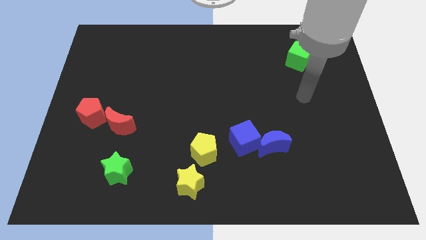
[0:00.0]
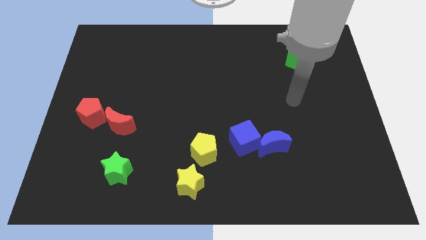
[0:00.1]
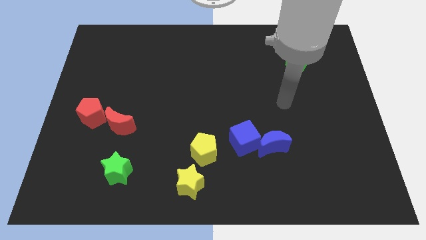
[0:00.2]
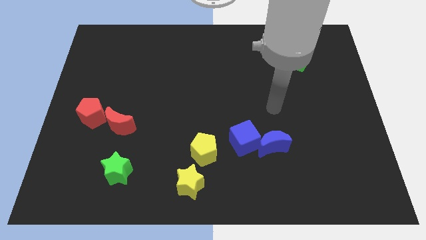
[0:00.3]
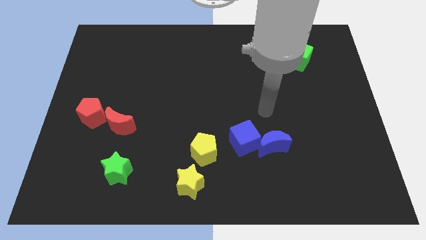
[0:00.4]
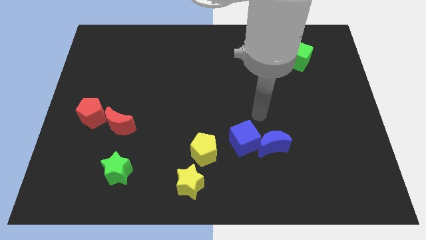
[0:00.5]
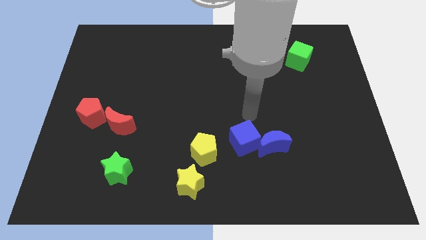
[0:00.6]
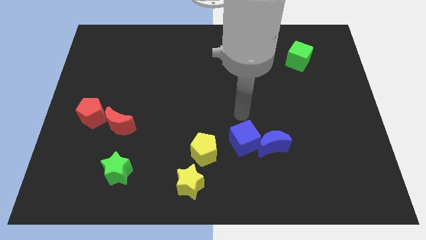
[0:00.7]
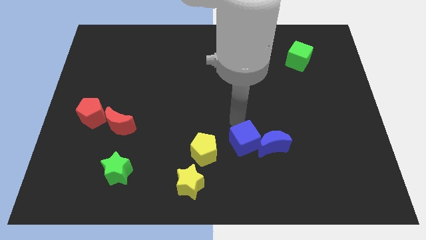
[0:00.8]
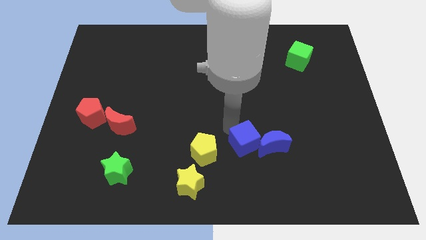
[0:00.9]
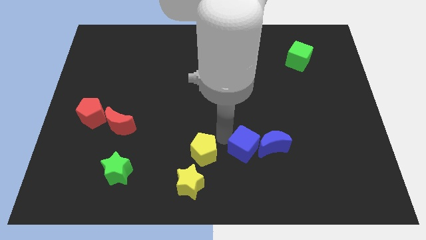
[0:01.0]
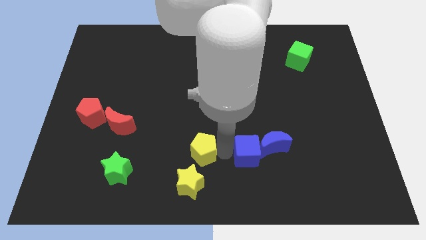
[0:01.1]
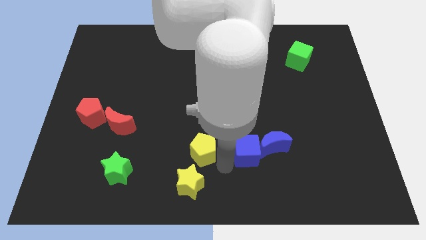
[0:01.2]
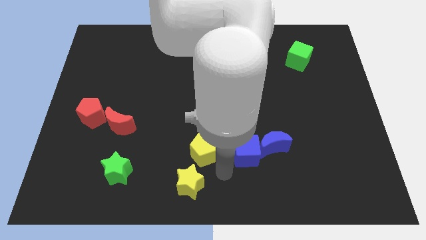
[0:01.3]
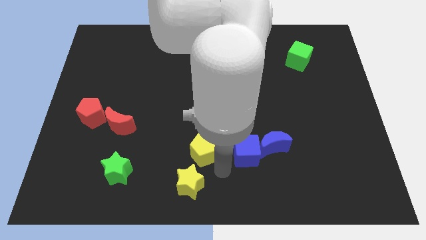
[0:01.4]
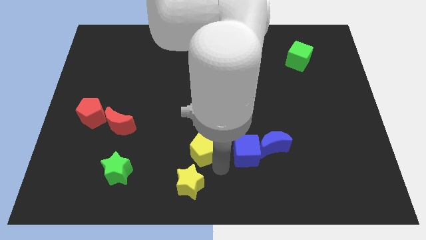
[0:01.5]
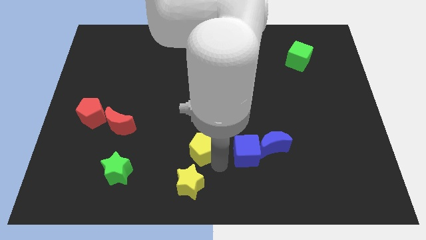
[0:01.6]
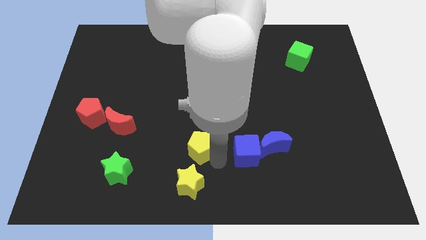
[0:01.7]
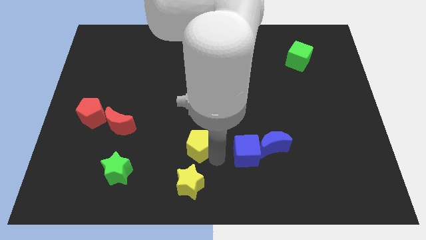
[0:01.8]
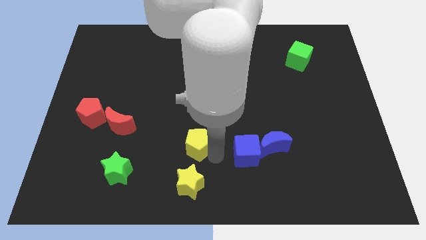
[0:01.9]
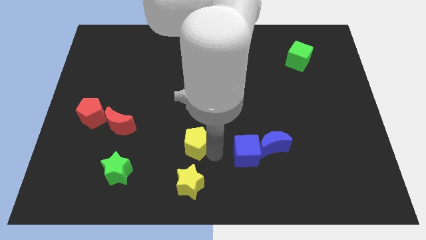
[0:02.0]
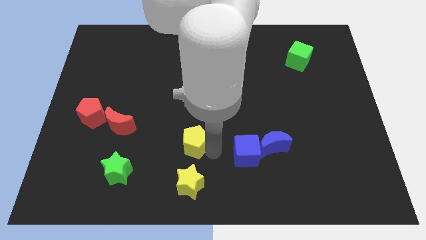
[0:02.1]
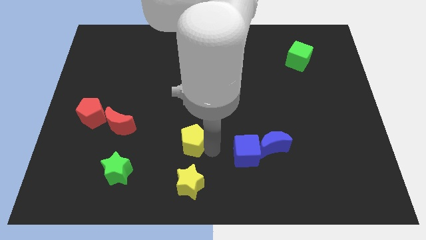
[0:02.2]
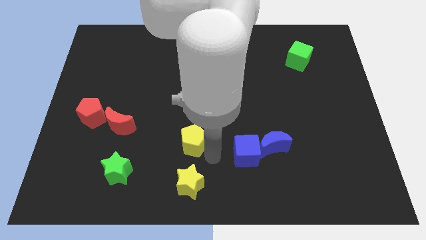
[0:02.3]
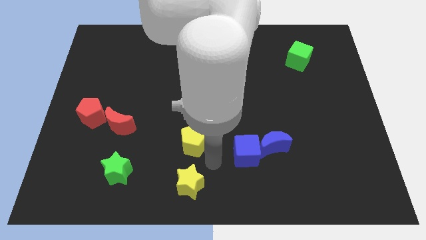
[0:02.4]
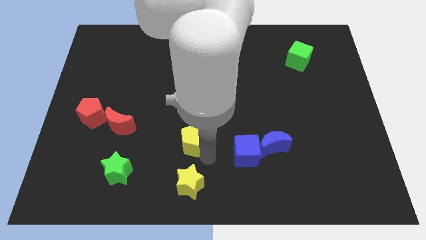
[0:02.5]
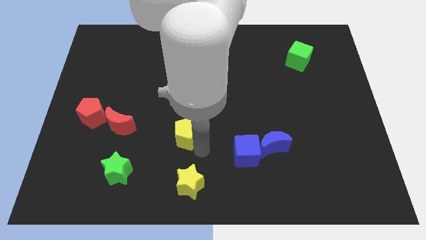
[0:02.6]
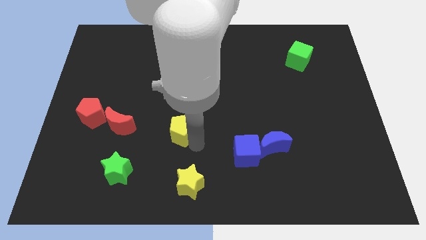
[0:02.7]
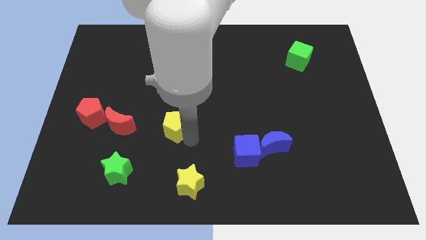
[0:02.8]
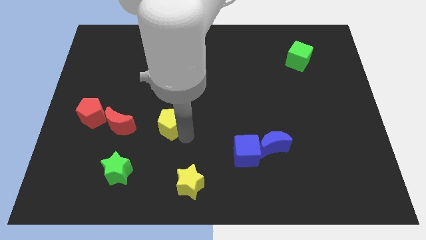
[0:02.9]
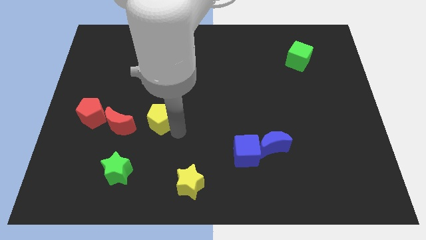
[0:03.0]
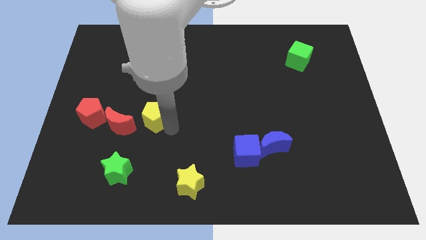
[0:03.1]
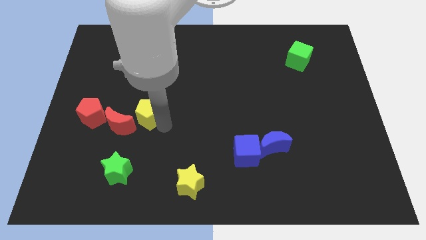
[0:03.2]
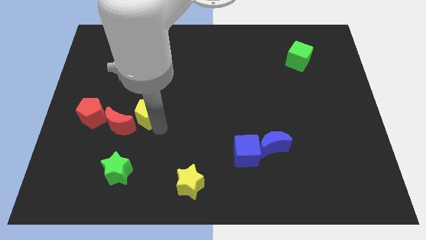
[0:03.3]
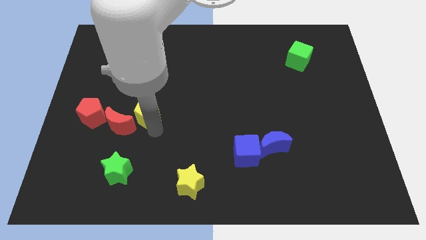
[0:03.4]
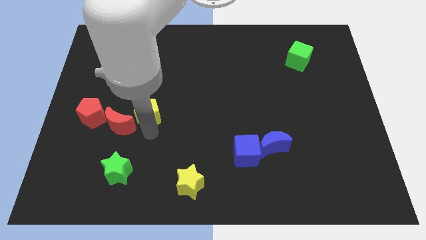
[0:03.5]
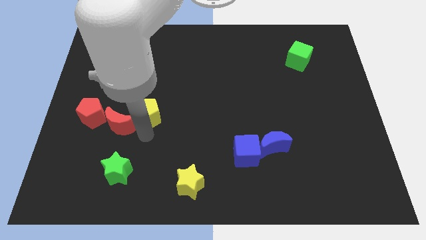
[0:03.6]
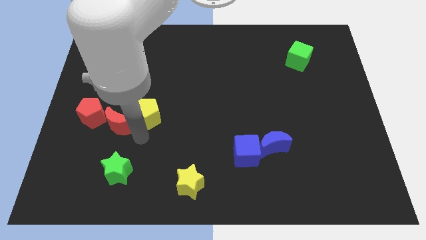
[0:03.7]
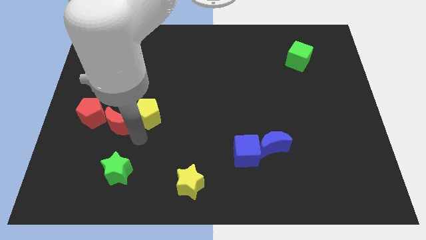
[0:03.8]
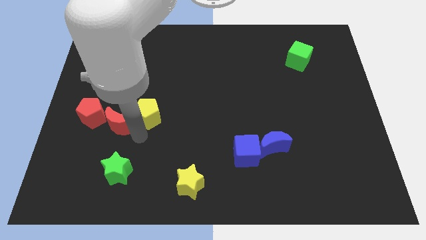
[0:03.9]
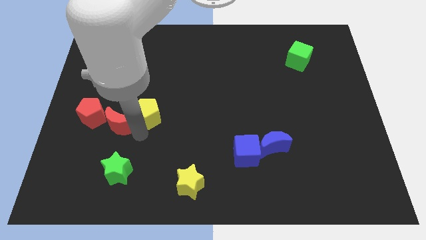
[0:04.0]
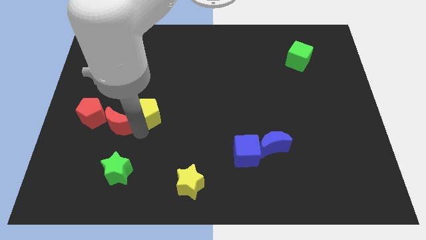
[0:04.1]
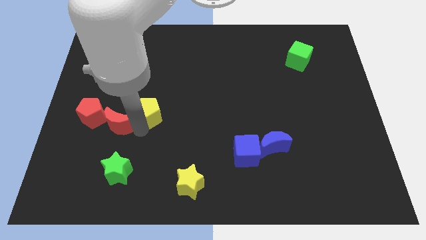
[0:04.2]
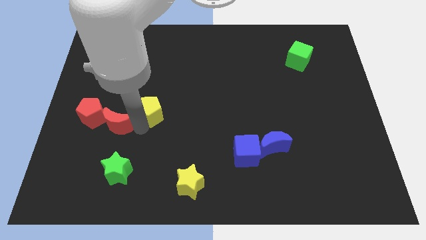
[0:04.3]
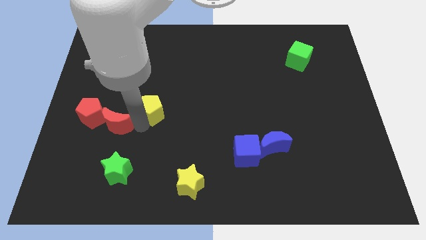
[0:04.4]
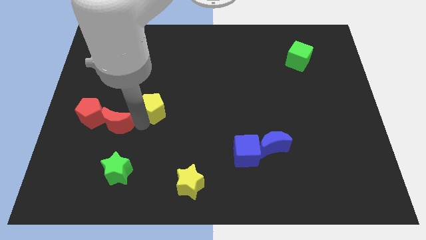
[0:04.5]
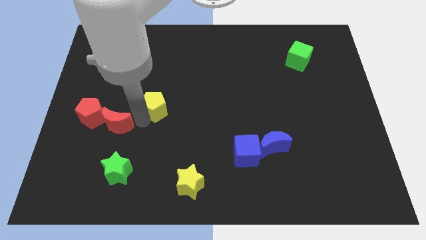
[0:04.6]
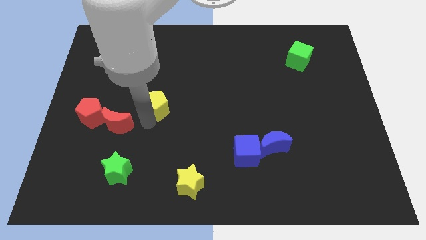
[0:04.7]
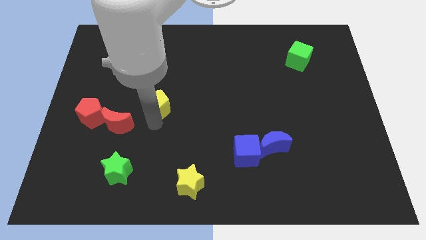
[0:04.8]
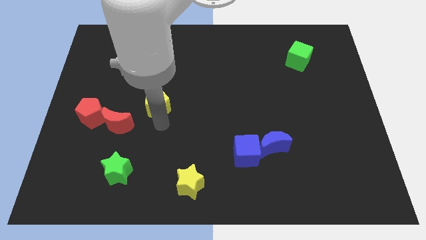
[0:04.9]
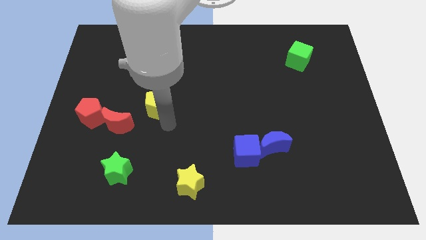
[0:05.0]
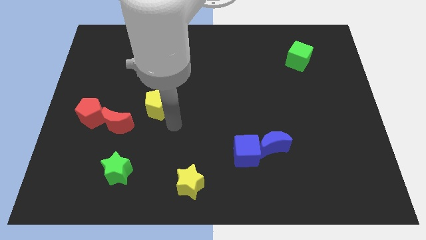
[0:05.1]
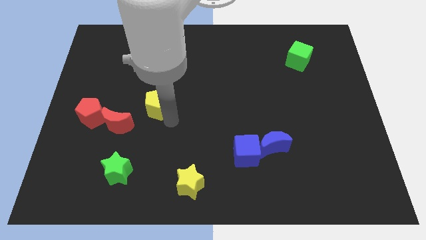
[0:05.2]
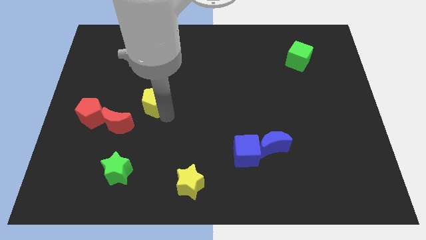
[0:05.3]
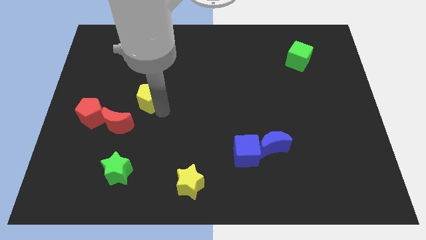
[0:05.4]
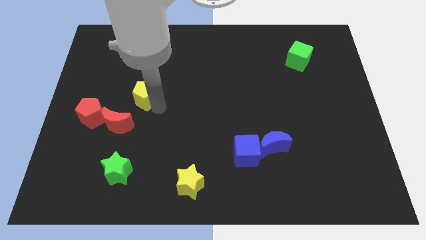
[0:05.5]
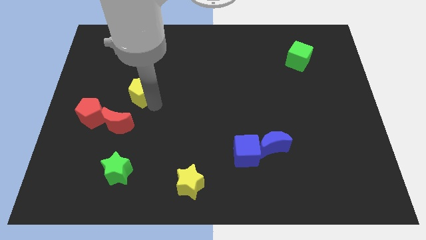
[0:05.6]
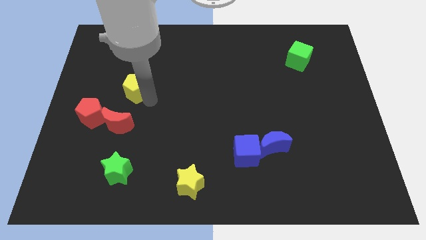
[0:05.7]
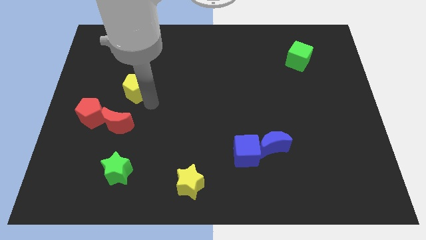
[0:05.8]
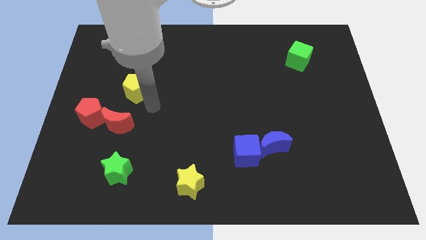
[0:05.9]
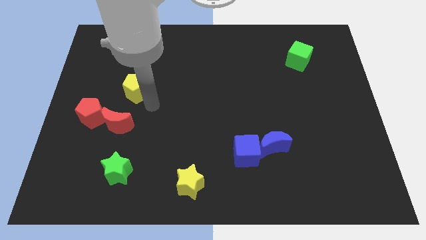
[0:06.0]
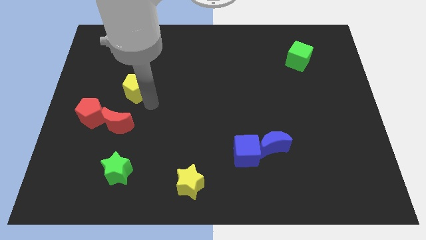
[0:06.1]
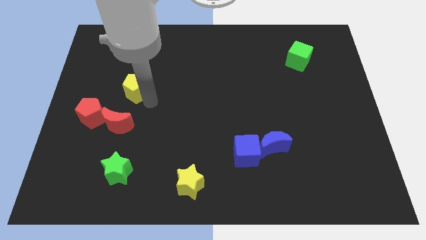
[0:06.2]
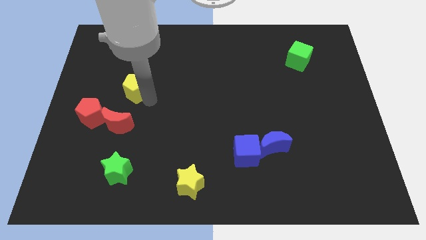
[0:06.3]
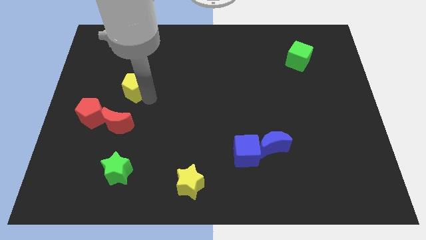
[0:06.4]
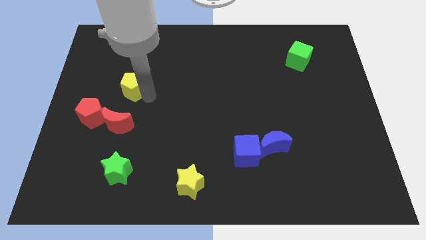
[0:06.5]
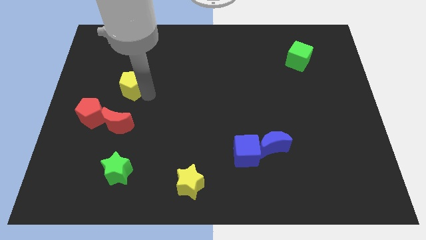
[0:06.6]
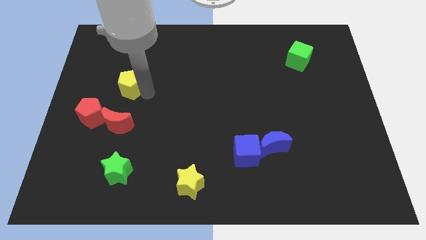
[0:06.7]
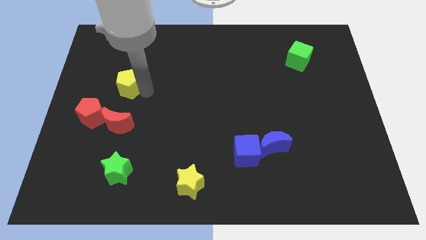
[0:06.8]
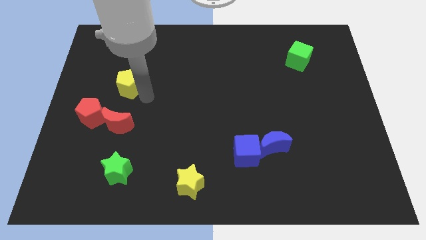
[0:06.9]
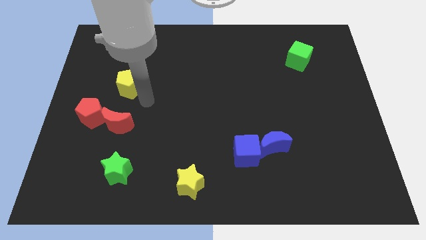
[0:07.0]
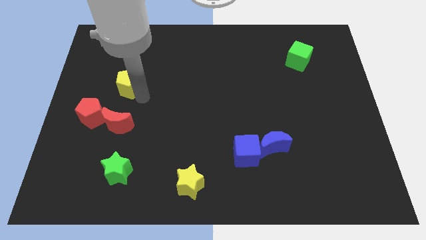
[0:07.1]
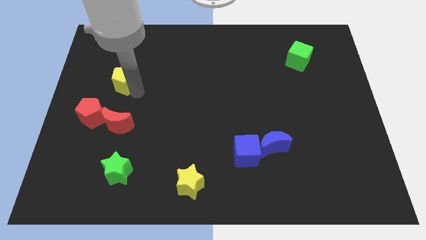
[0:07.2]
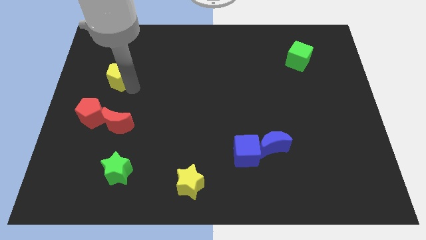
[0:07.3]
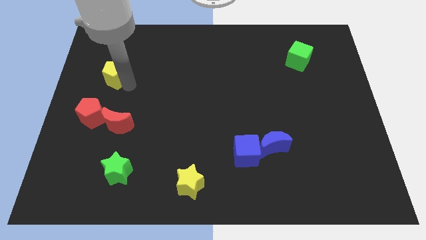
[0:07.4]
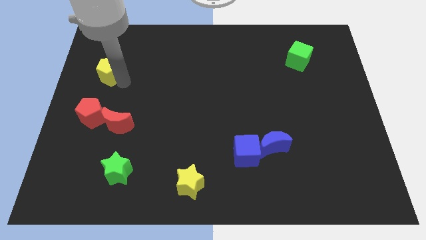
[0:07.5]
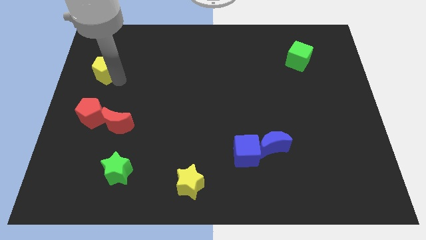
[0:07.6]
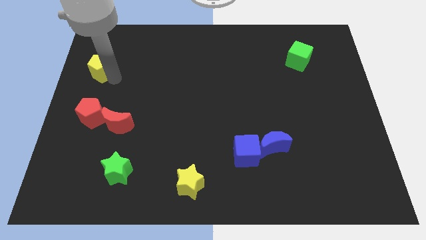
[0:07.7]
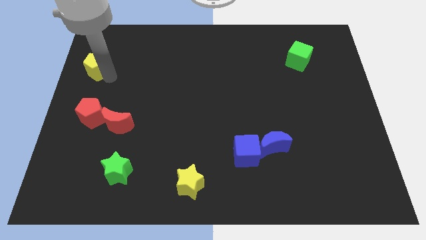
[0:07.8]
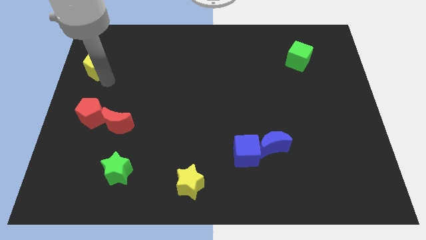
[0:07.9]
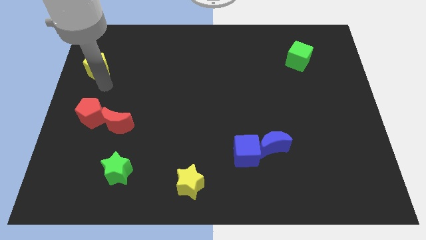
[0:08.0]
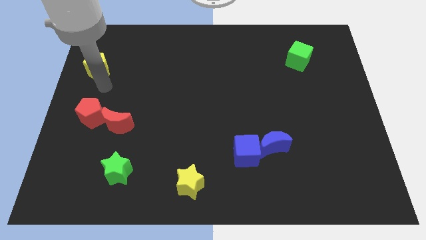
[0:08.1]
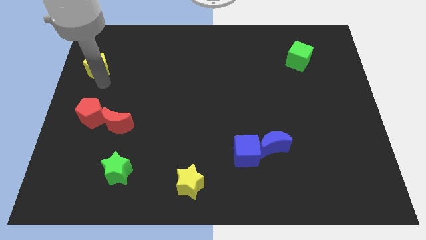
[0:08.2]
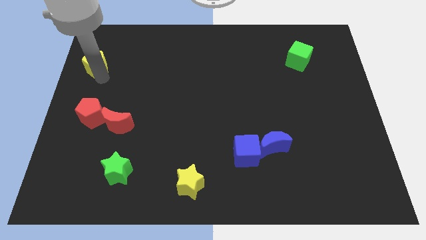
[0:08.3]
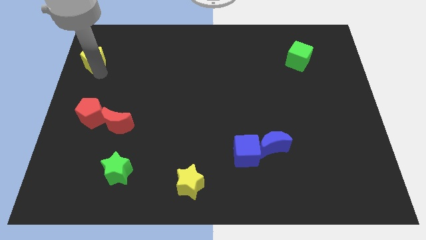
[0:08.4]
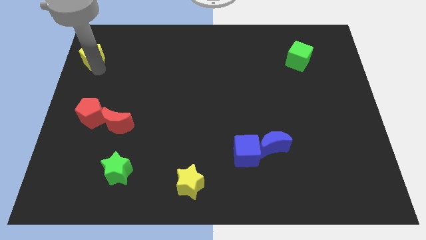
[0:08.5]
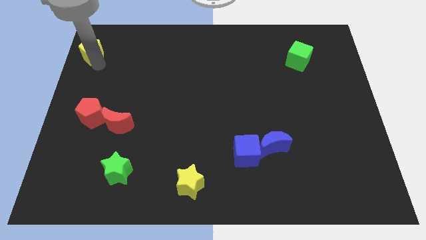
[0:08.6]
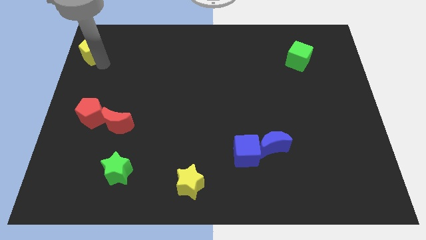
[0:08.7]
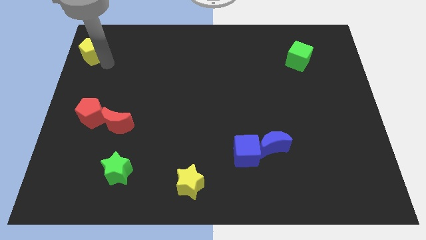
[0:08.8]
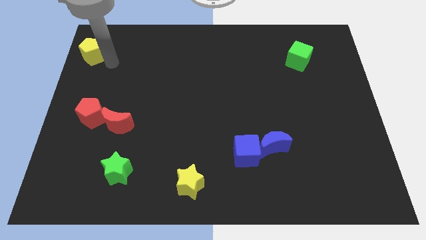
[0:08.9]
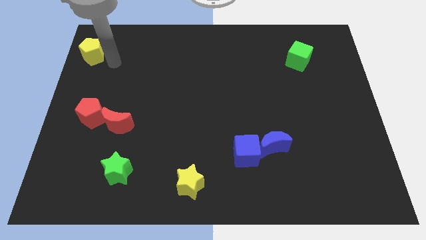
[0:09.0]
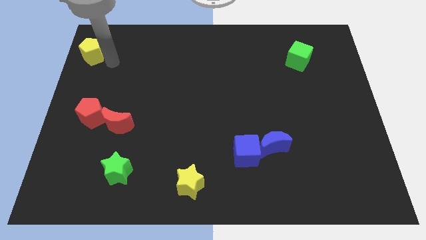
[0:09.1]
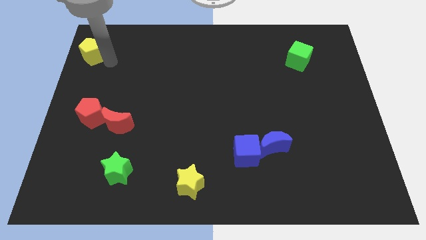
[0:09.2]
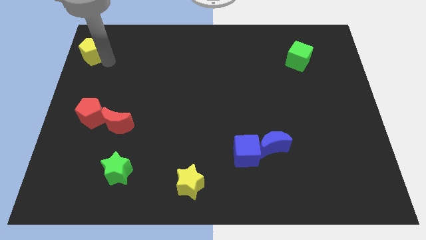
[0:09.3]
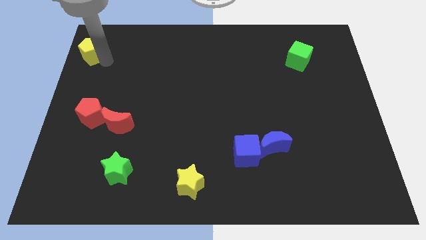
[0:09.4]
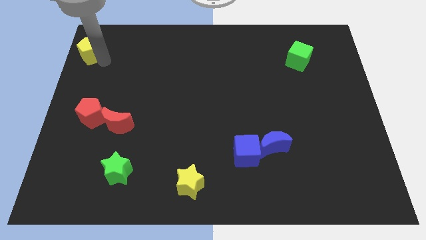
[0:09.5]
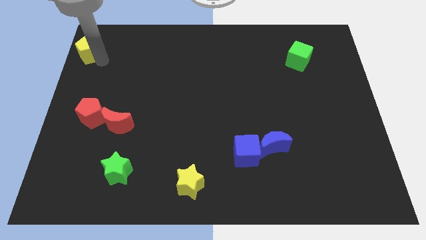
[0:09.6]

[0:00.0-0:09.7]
move the yellow pentagon to the top left corner
